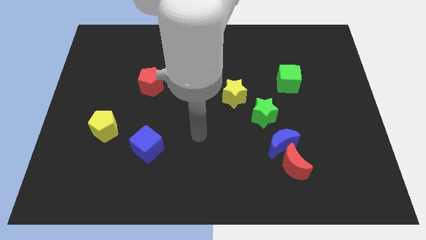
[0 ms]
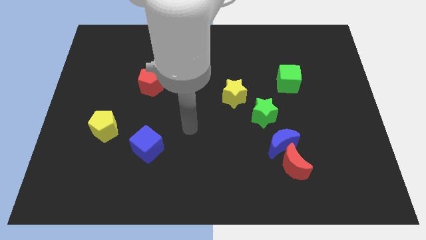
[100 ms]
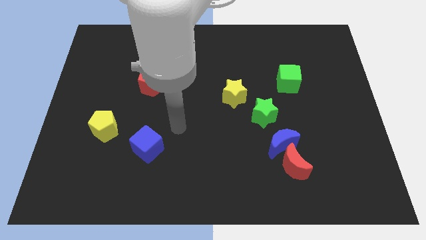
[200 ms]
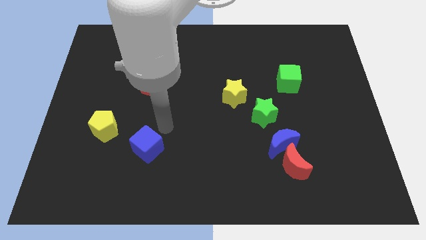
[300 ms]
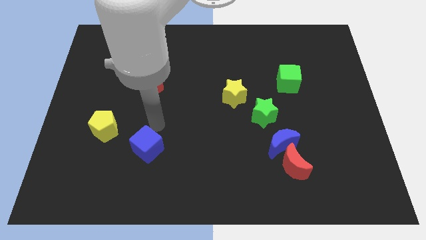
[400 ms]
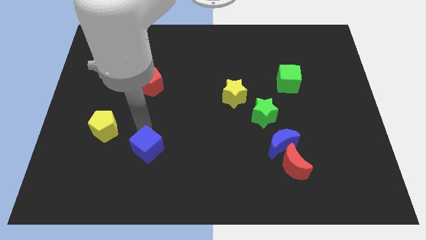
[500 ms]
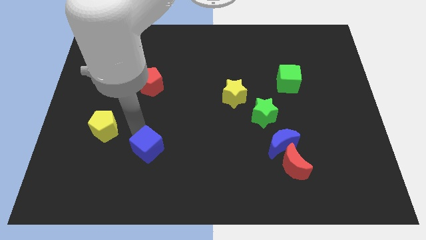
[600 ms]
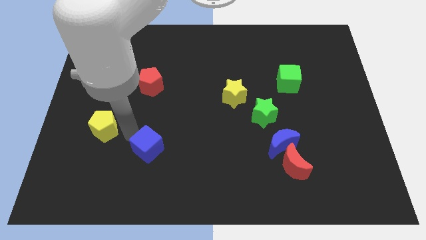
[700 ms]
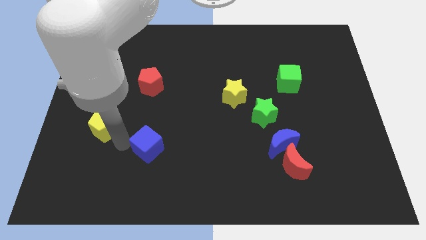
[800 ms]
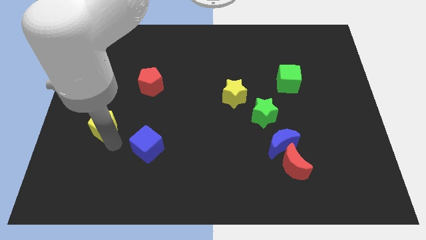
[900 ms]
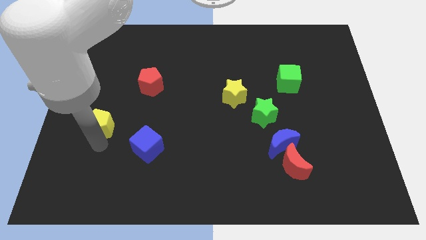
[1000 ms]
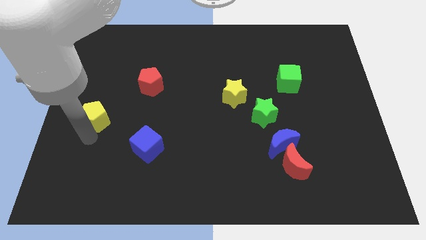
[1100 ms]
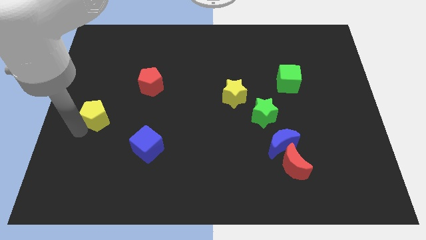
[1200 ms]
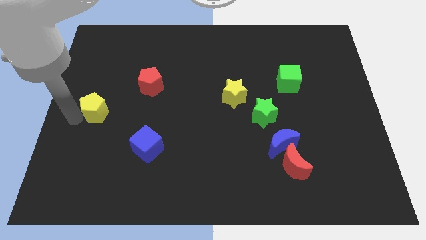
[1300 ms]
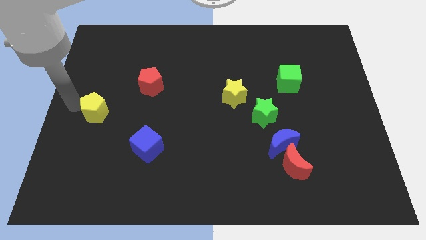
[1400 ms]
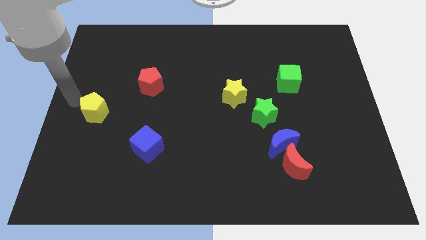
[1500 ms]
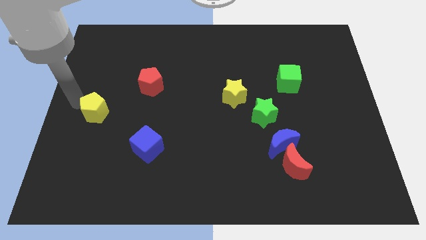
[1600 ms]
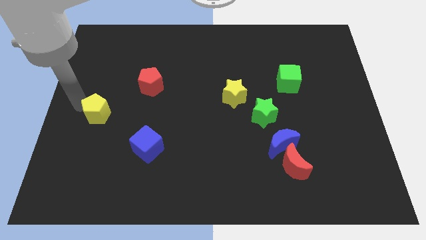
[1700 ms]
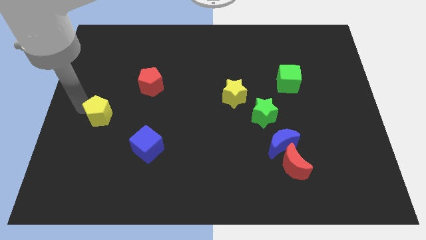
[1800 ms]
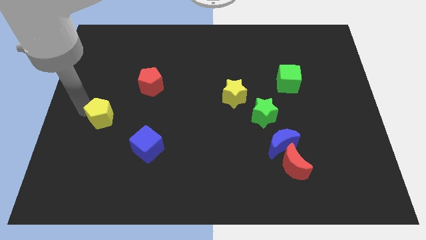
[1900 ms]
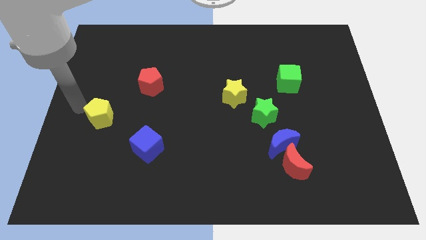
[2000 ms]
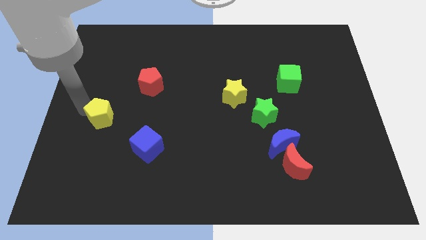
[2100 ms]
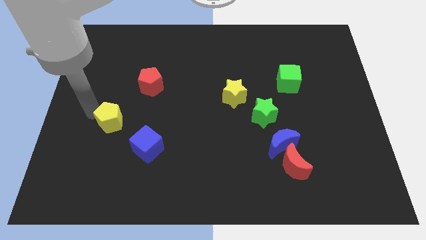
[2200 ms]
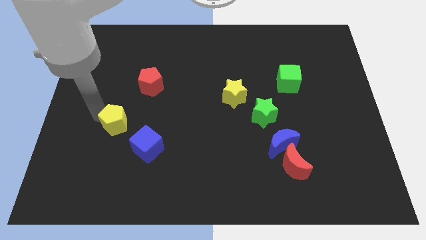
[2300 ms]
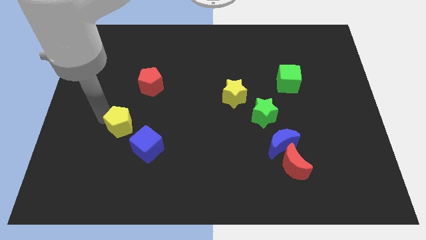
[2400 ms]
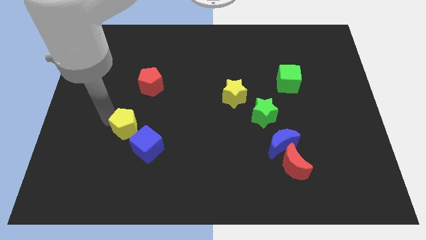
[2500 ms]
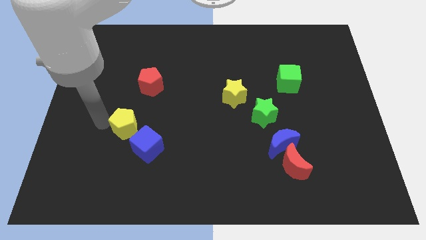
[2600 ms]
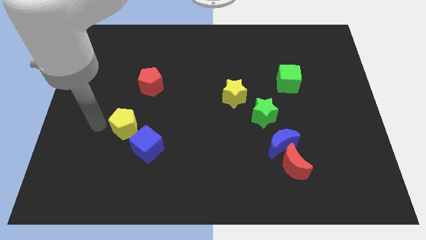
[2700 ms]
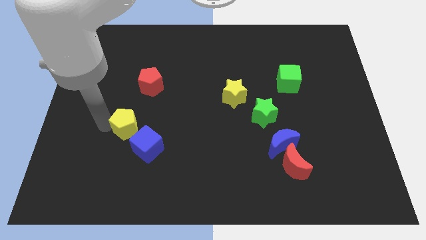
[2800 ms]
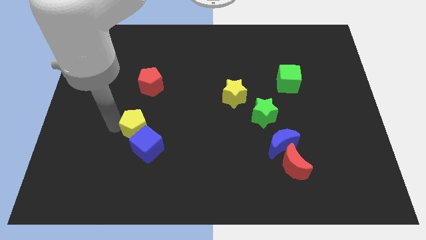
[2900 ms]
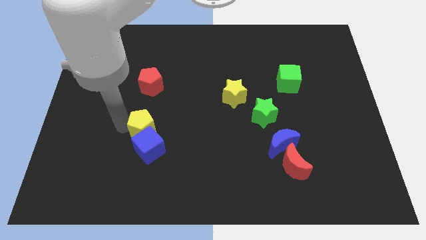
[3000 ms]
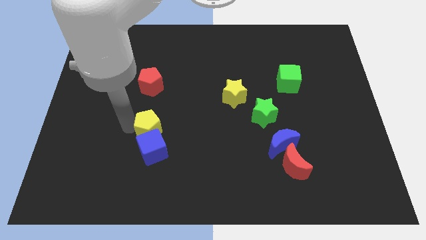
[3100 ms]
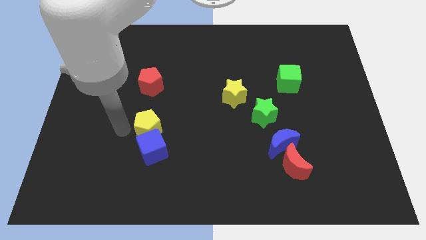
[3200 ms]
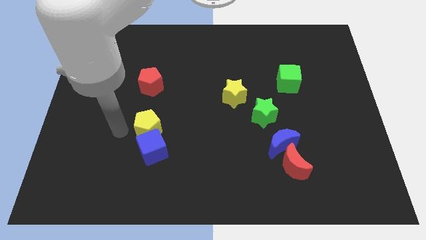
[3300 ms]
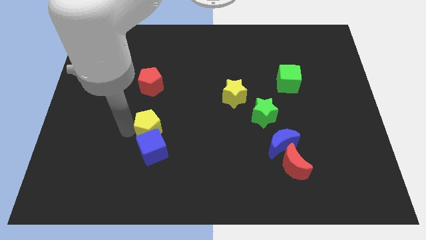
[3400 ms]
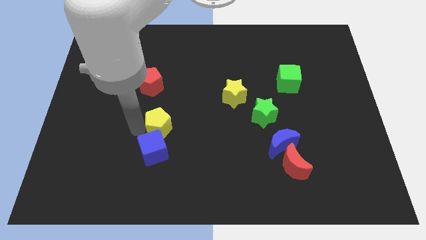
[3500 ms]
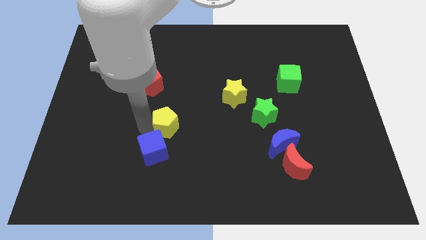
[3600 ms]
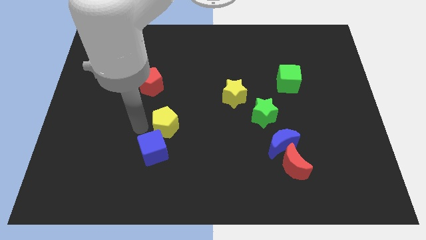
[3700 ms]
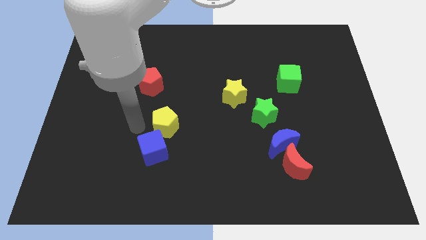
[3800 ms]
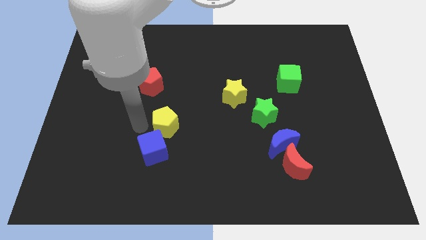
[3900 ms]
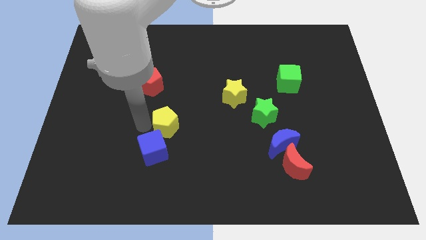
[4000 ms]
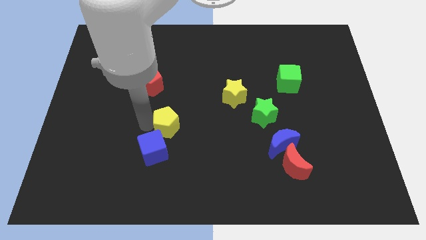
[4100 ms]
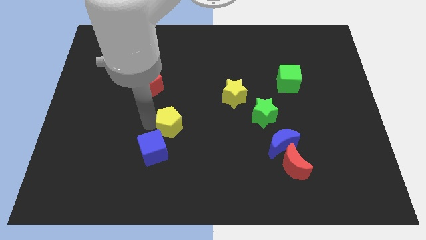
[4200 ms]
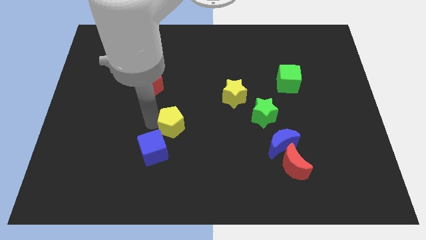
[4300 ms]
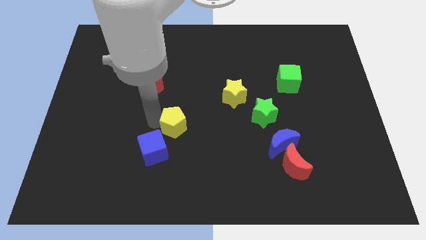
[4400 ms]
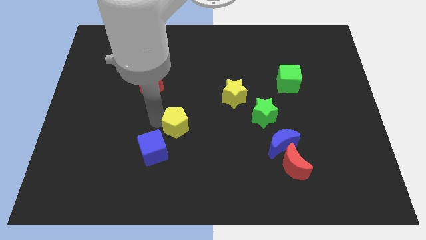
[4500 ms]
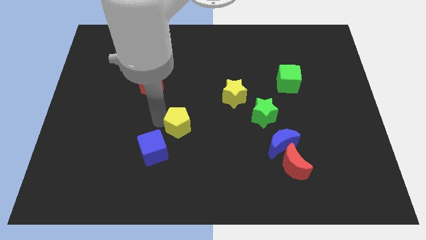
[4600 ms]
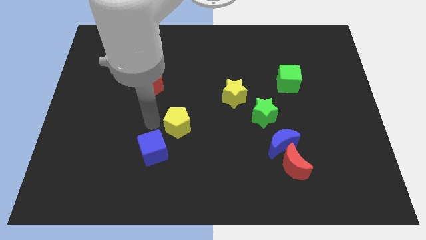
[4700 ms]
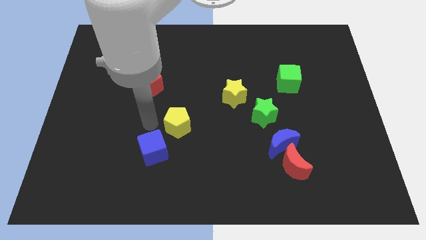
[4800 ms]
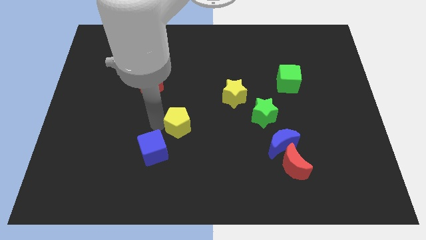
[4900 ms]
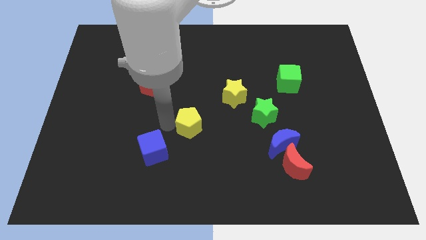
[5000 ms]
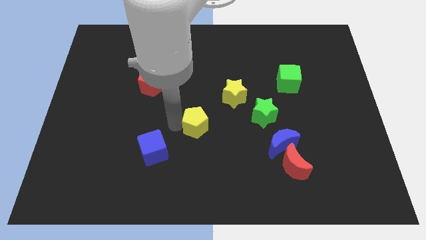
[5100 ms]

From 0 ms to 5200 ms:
slide the yellow pentagon to the right

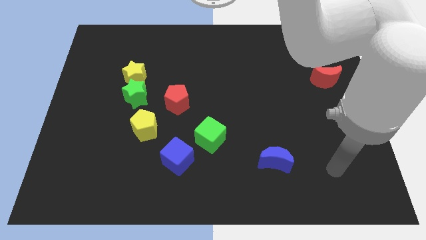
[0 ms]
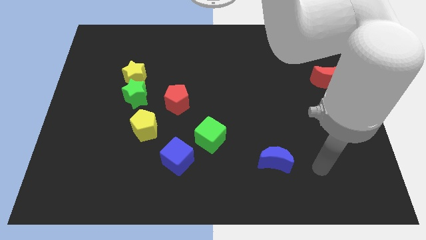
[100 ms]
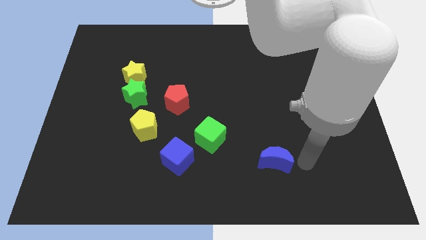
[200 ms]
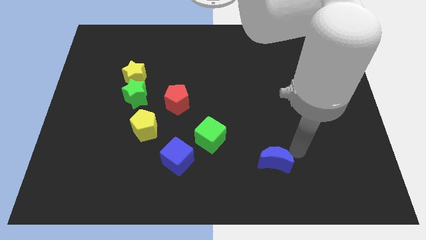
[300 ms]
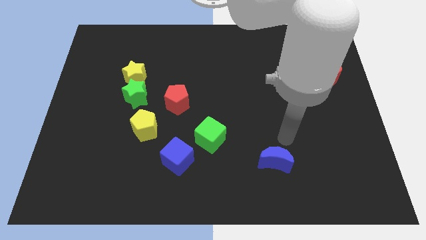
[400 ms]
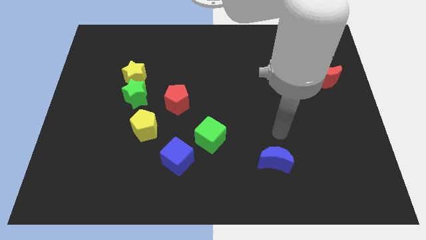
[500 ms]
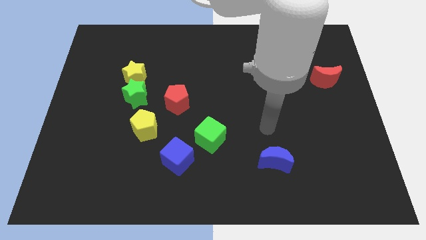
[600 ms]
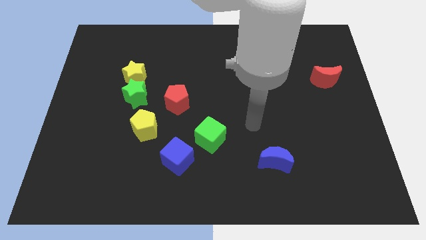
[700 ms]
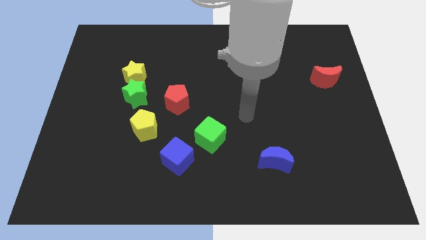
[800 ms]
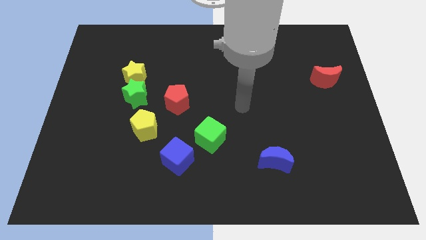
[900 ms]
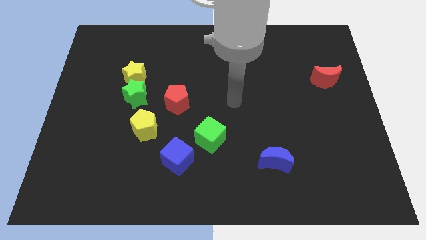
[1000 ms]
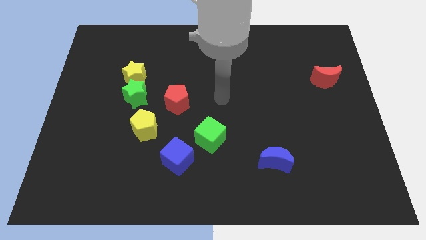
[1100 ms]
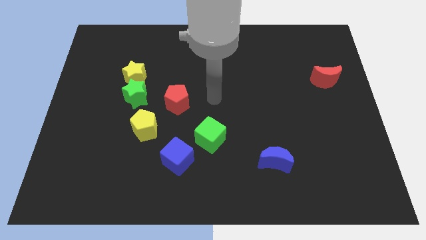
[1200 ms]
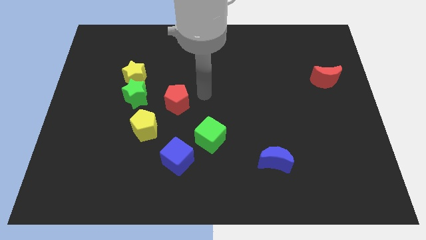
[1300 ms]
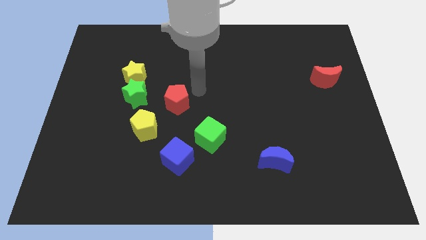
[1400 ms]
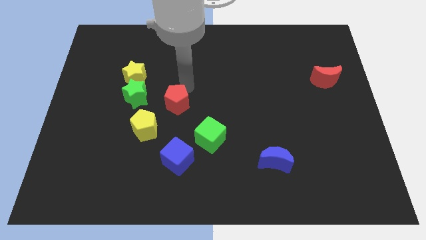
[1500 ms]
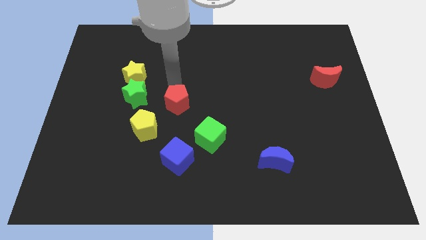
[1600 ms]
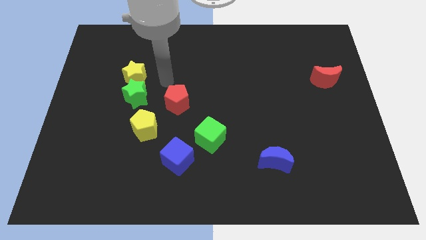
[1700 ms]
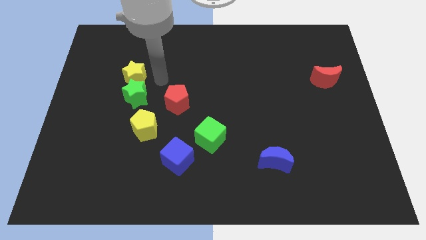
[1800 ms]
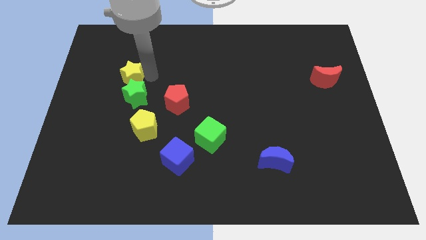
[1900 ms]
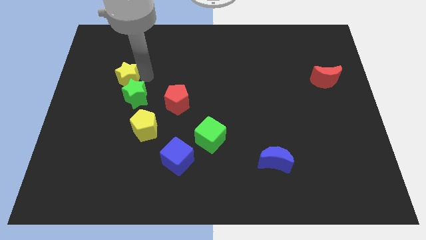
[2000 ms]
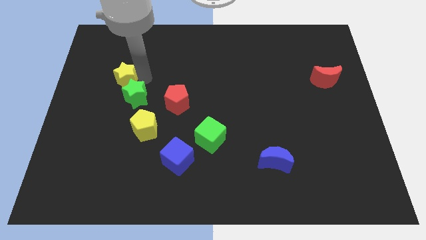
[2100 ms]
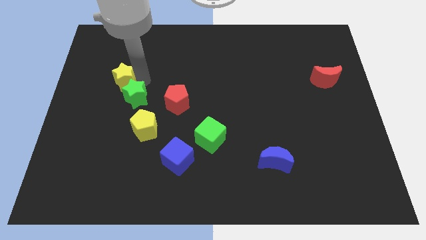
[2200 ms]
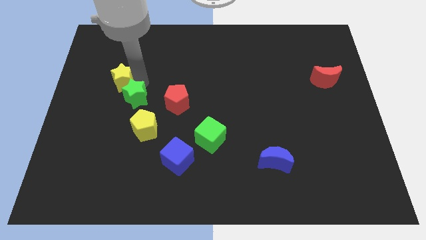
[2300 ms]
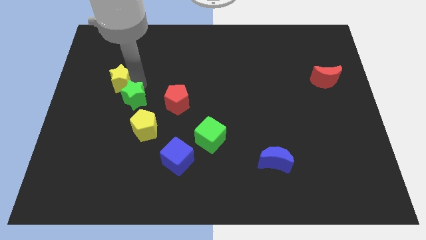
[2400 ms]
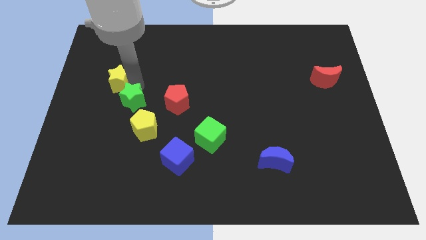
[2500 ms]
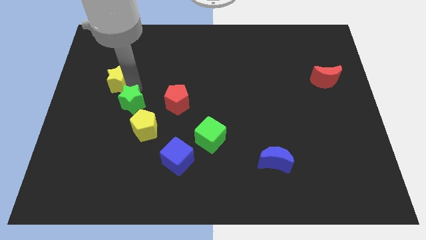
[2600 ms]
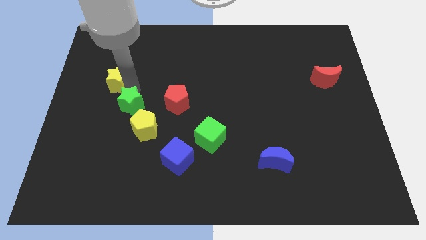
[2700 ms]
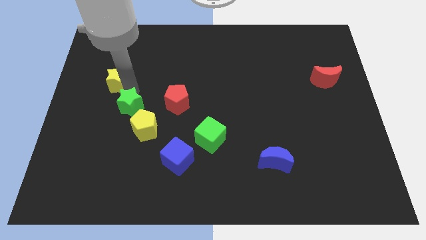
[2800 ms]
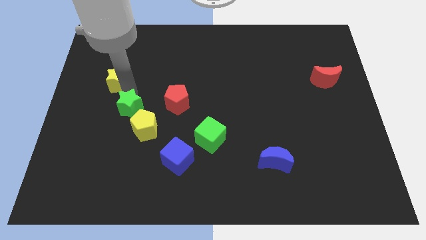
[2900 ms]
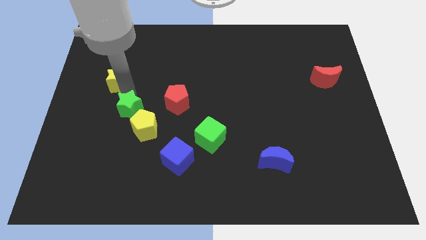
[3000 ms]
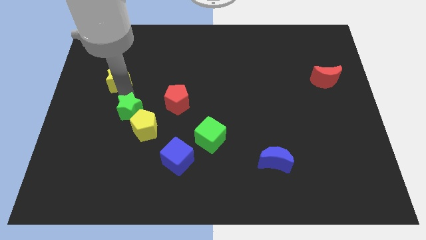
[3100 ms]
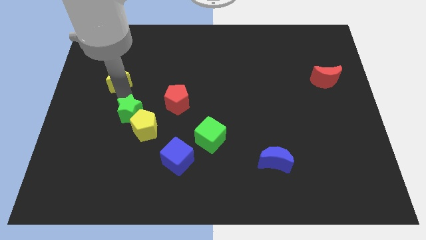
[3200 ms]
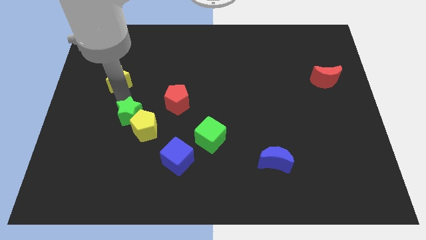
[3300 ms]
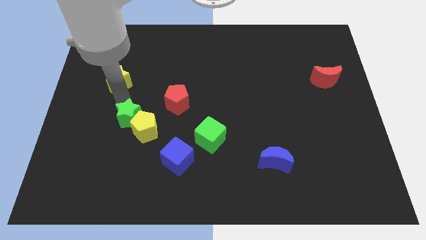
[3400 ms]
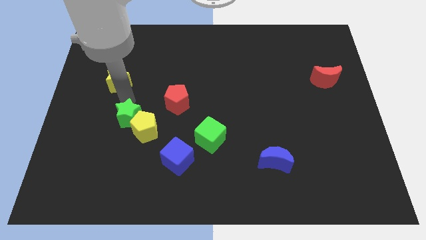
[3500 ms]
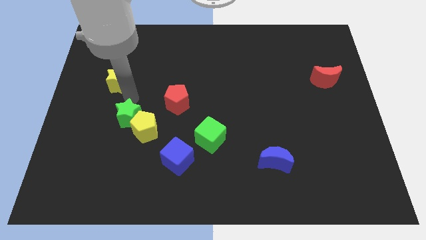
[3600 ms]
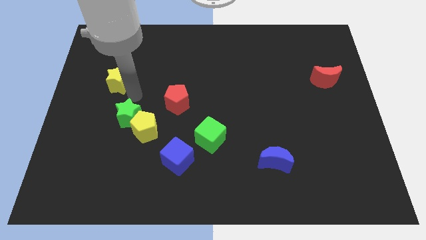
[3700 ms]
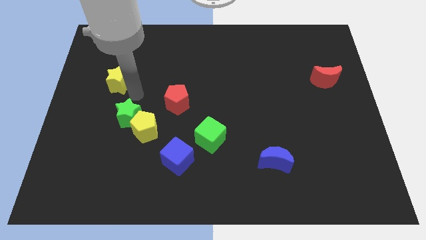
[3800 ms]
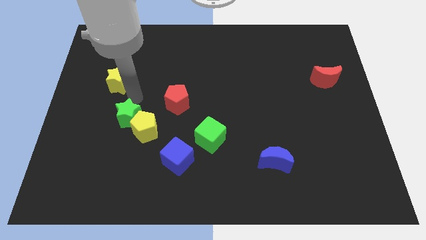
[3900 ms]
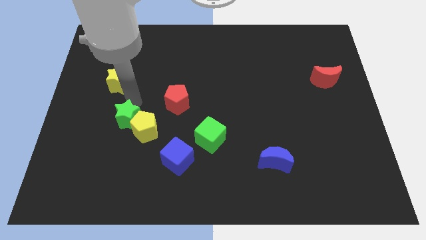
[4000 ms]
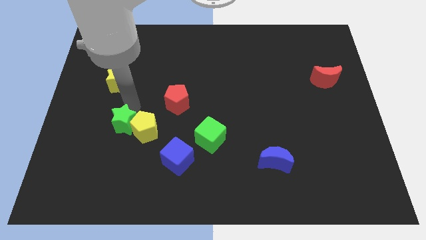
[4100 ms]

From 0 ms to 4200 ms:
move the green star slightly down
